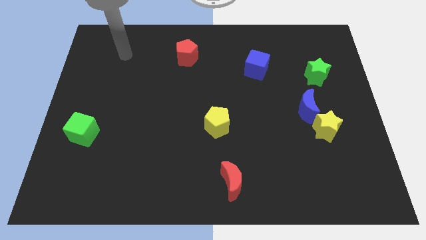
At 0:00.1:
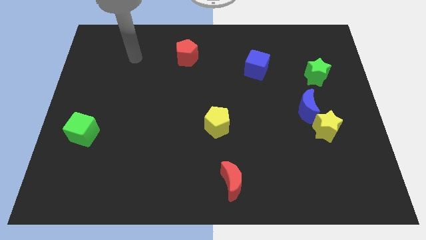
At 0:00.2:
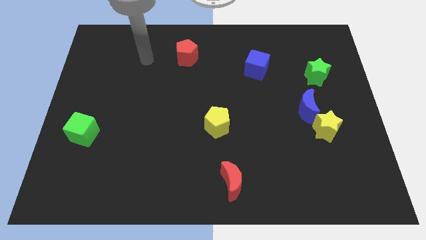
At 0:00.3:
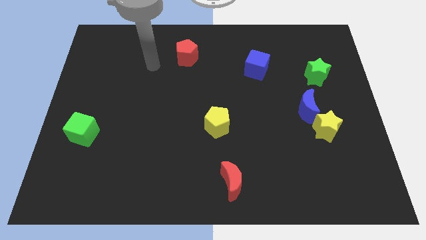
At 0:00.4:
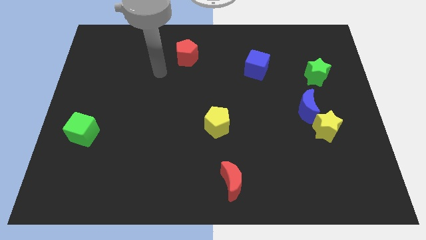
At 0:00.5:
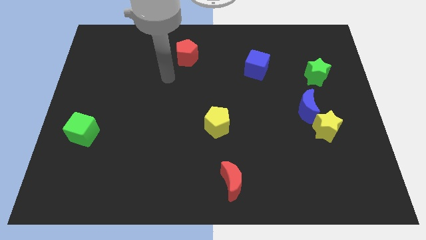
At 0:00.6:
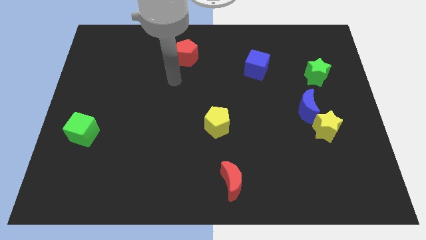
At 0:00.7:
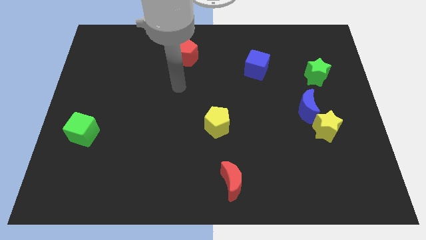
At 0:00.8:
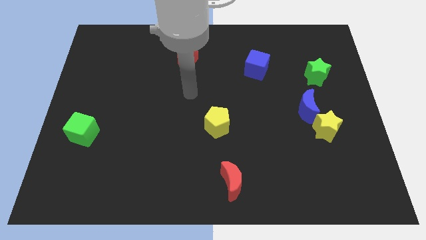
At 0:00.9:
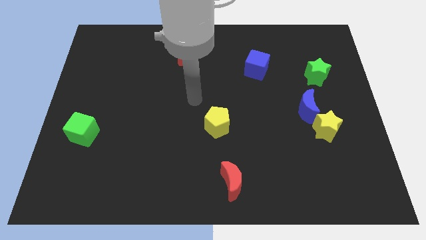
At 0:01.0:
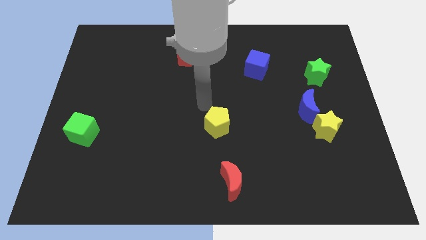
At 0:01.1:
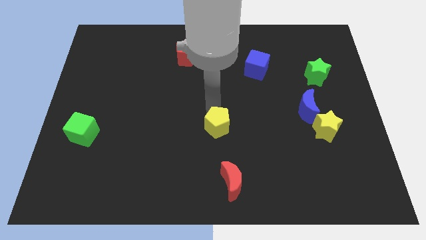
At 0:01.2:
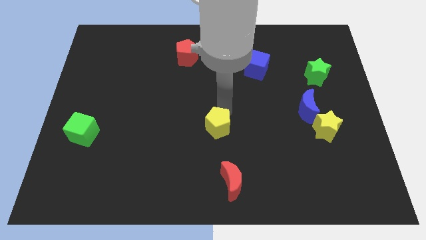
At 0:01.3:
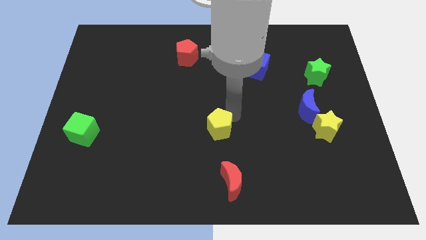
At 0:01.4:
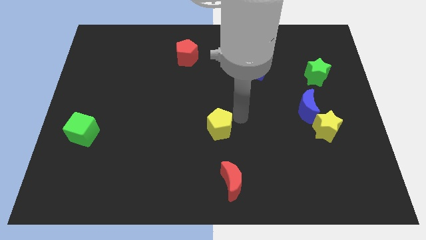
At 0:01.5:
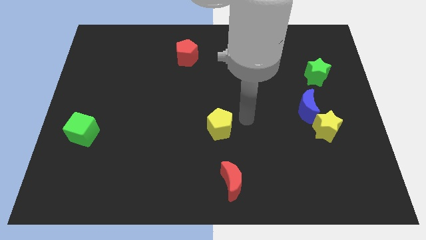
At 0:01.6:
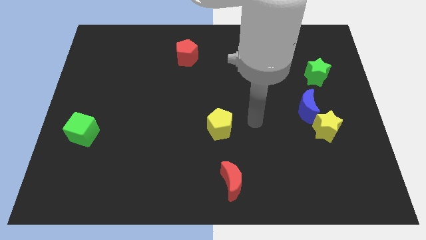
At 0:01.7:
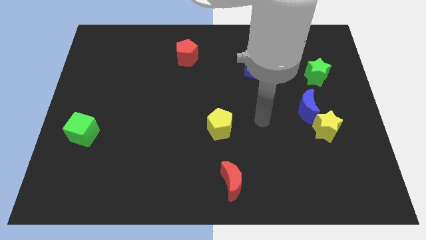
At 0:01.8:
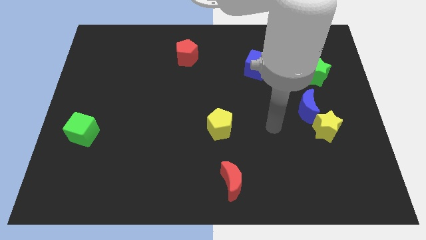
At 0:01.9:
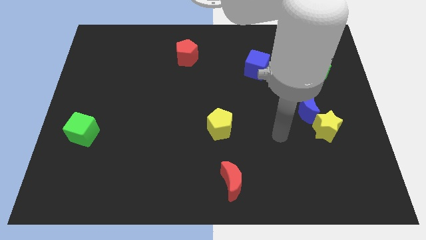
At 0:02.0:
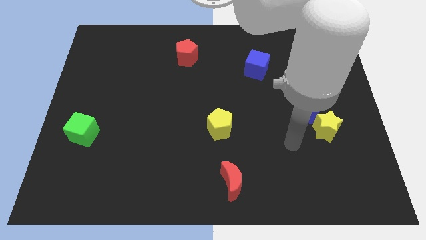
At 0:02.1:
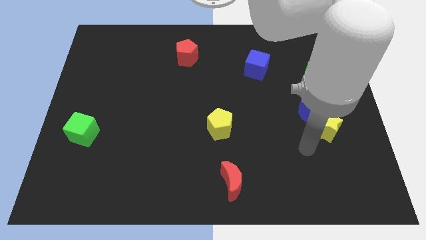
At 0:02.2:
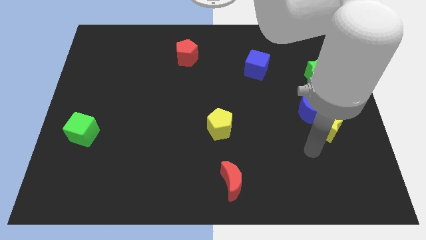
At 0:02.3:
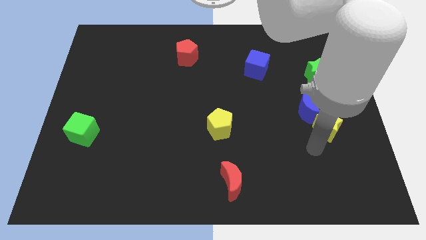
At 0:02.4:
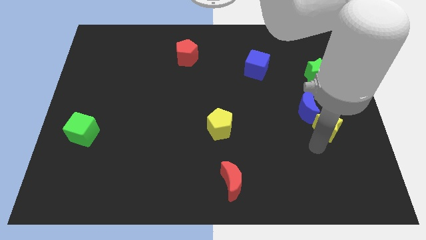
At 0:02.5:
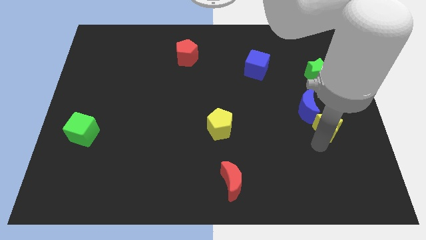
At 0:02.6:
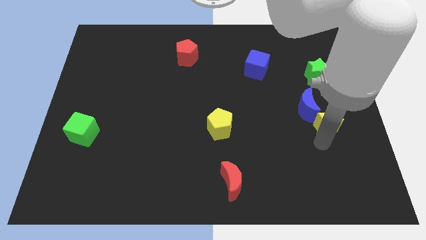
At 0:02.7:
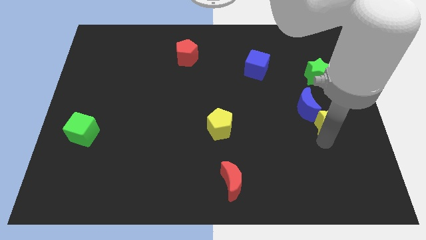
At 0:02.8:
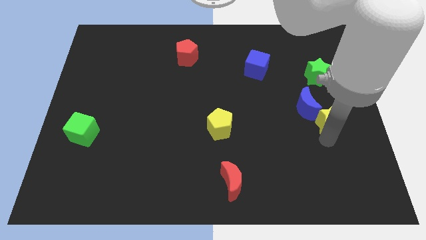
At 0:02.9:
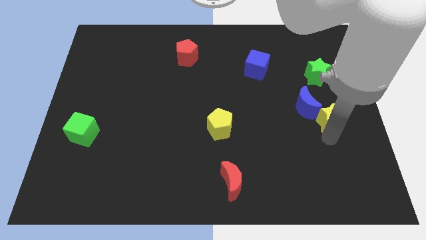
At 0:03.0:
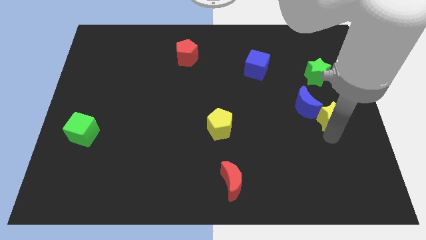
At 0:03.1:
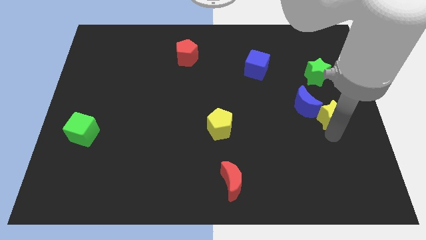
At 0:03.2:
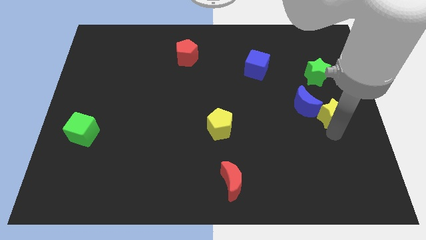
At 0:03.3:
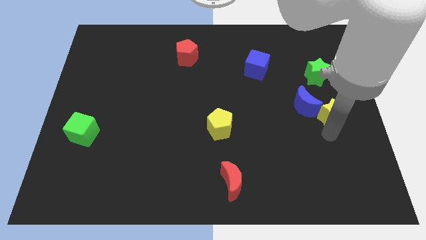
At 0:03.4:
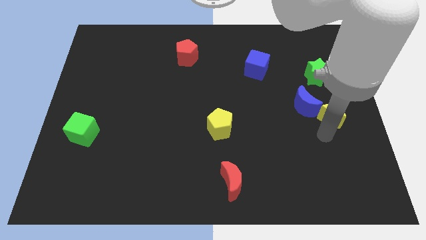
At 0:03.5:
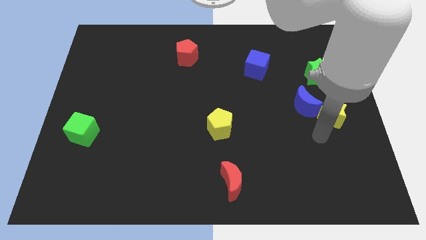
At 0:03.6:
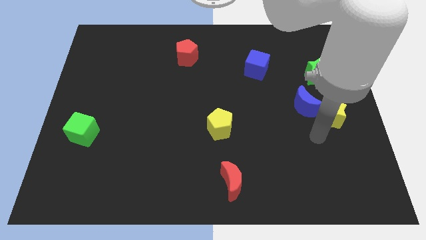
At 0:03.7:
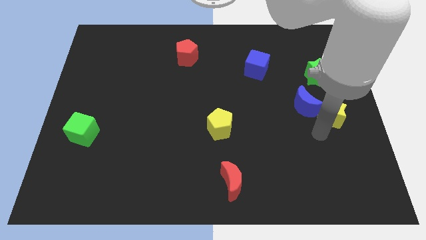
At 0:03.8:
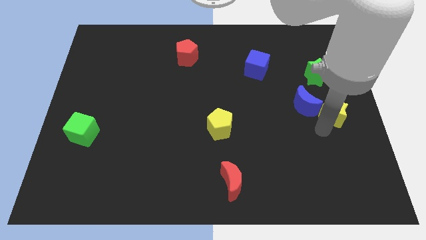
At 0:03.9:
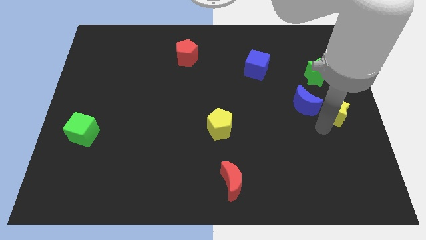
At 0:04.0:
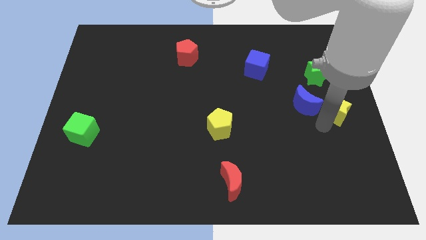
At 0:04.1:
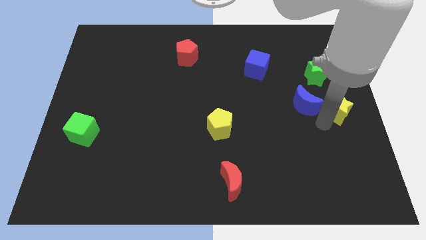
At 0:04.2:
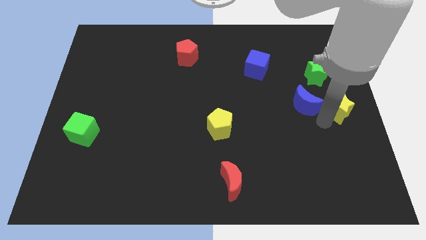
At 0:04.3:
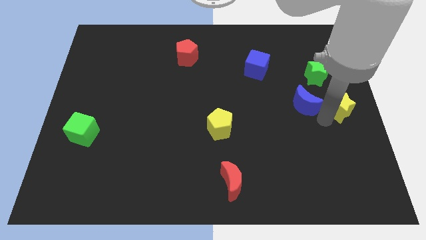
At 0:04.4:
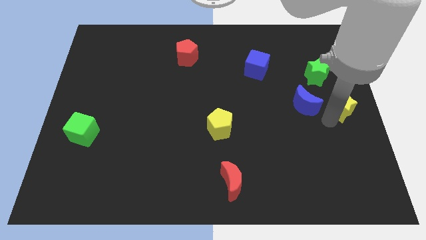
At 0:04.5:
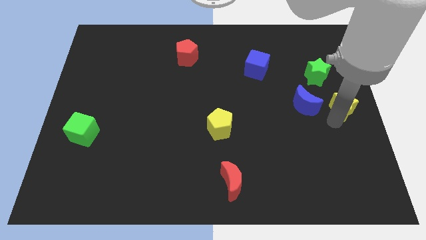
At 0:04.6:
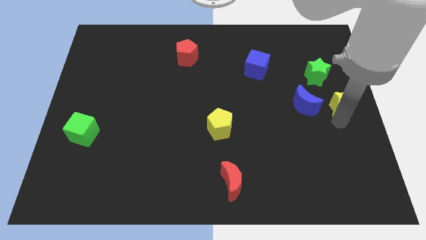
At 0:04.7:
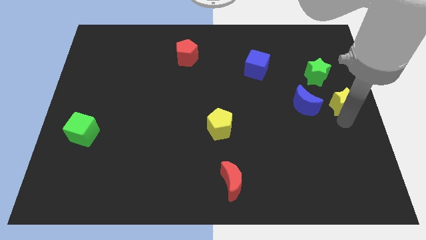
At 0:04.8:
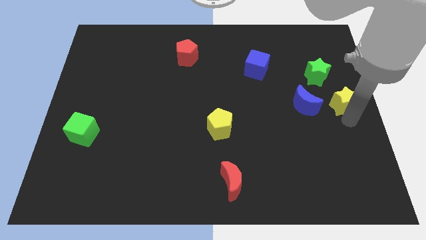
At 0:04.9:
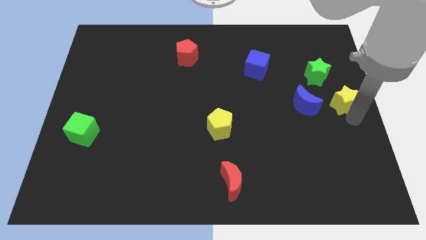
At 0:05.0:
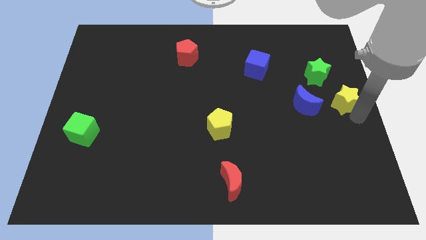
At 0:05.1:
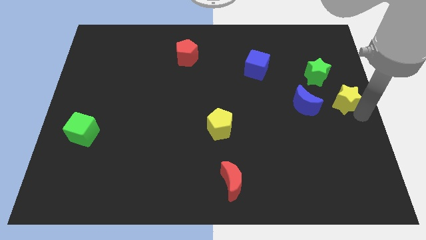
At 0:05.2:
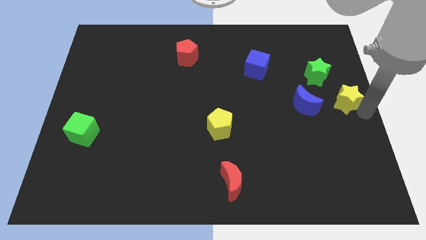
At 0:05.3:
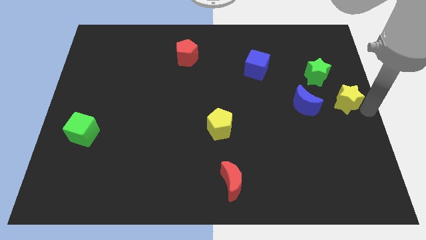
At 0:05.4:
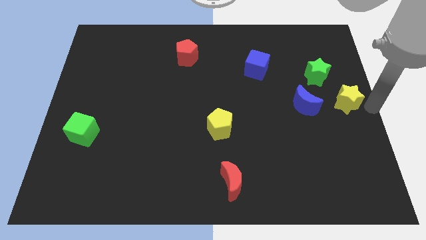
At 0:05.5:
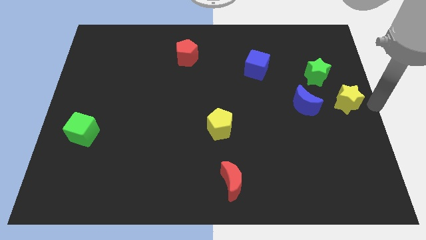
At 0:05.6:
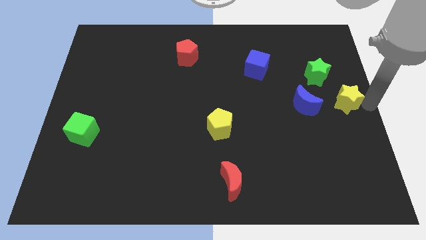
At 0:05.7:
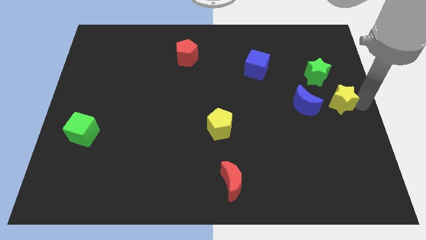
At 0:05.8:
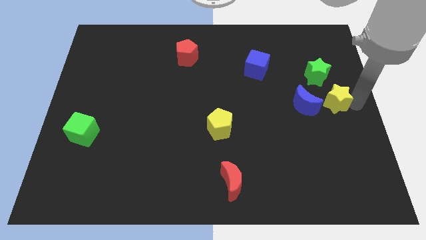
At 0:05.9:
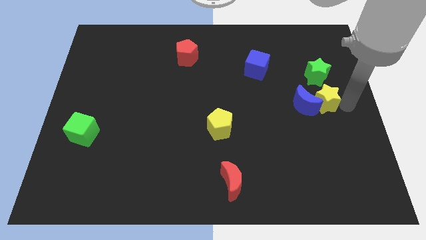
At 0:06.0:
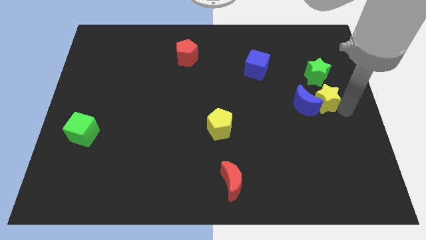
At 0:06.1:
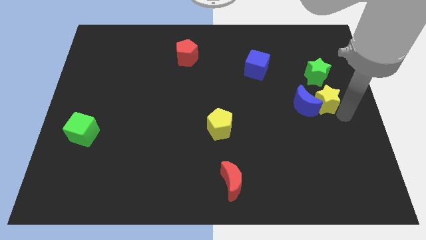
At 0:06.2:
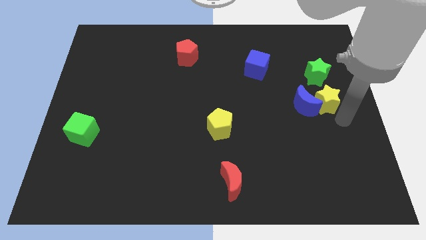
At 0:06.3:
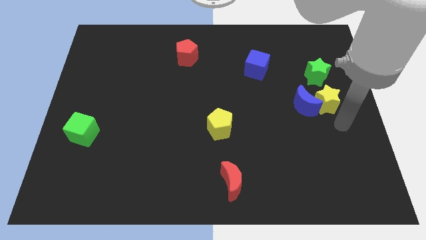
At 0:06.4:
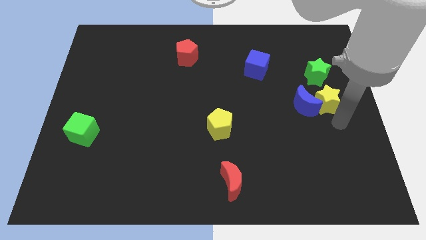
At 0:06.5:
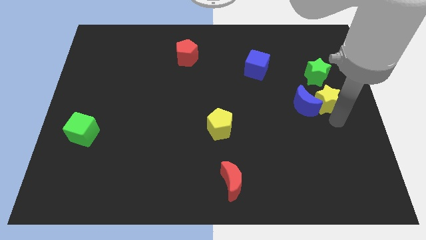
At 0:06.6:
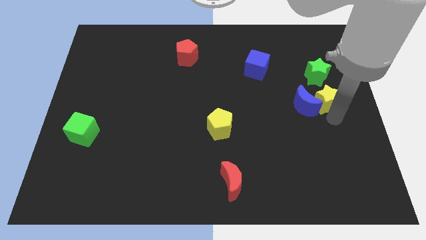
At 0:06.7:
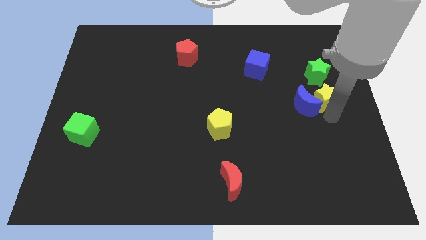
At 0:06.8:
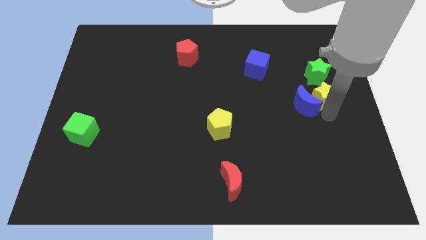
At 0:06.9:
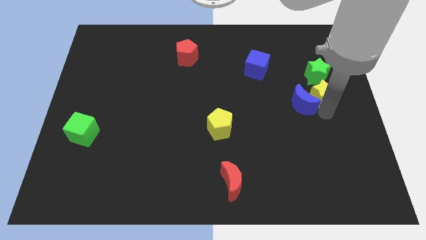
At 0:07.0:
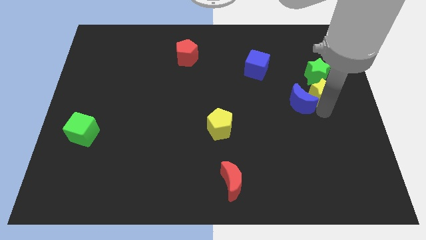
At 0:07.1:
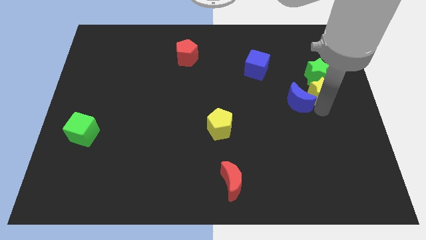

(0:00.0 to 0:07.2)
move the yellow star next to the green star
